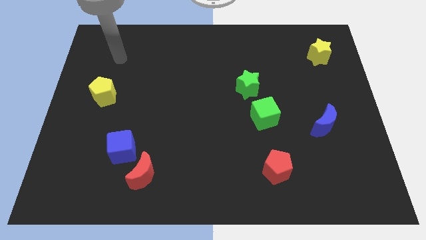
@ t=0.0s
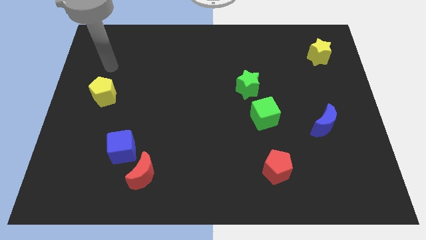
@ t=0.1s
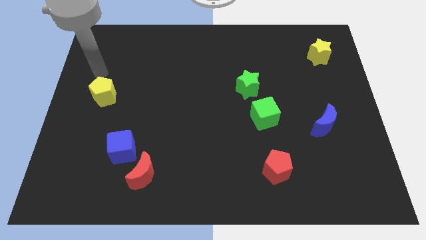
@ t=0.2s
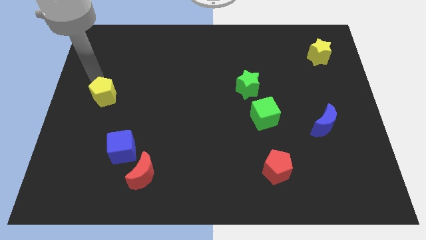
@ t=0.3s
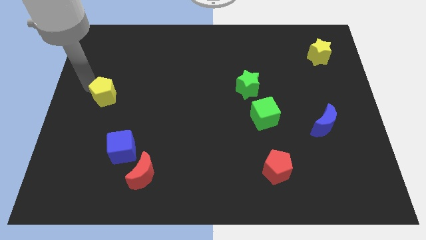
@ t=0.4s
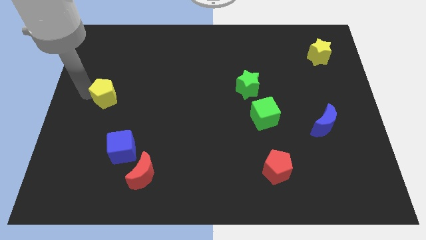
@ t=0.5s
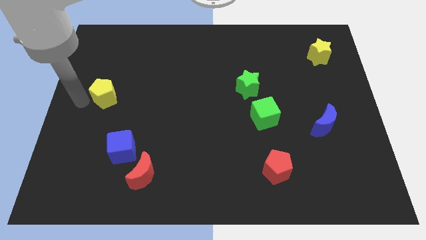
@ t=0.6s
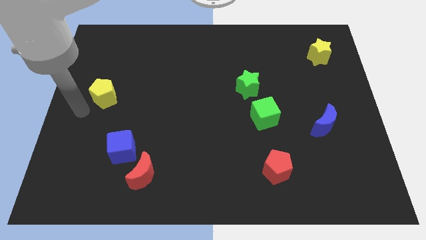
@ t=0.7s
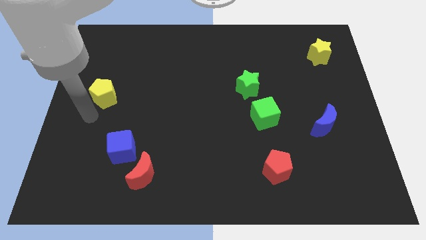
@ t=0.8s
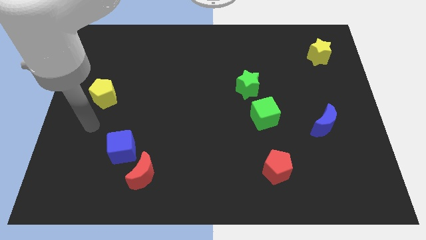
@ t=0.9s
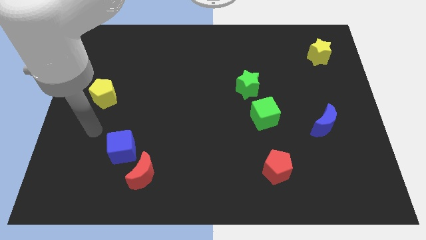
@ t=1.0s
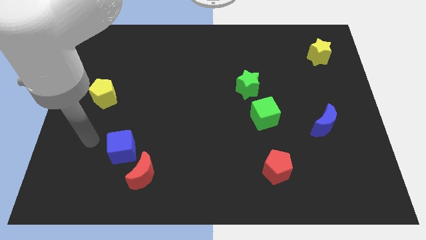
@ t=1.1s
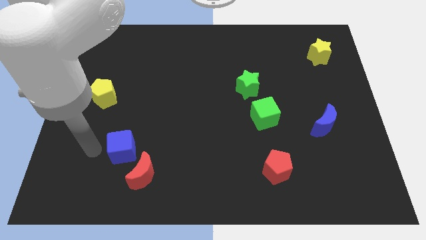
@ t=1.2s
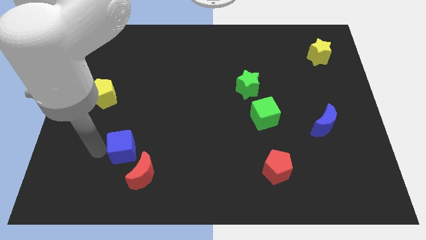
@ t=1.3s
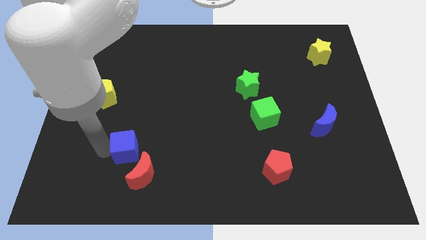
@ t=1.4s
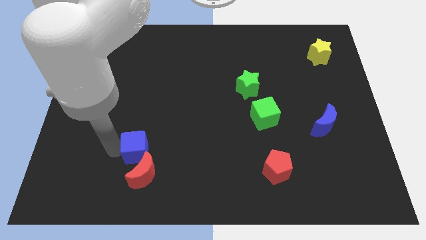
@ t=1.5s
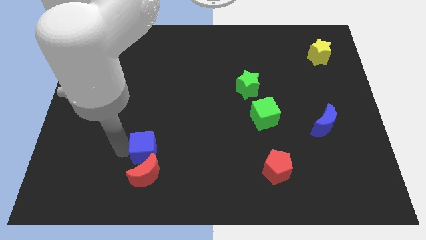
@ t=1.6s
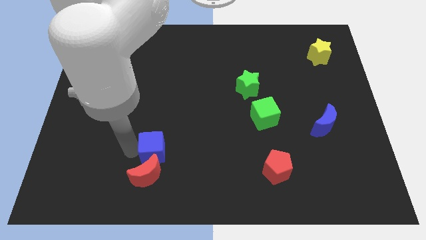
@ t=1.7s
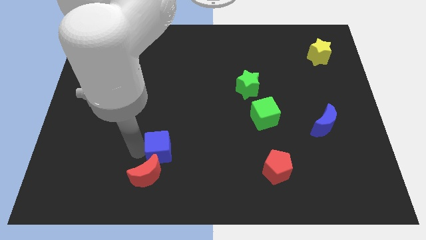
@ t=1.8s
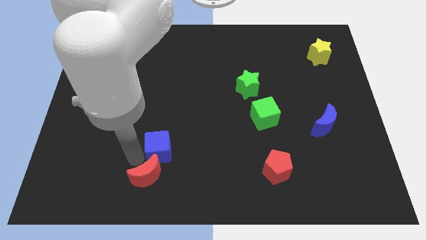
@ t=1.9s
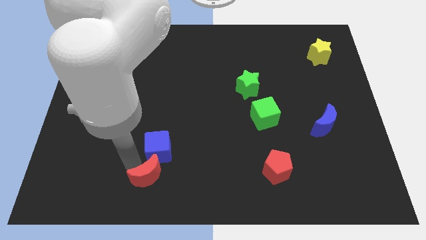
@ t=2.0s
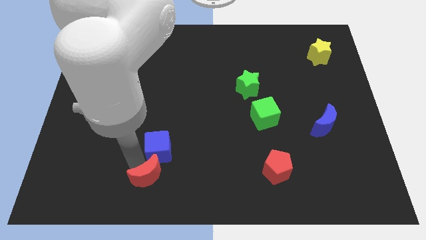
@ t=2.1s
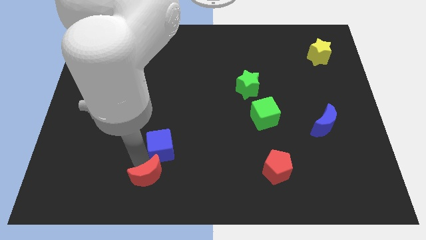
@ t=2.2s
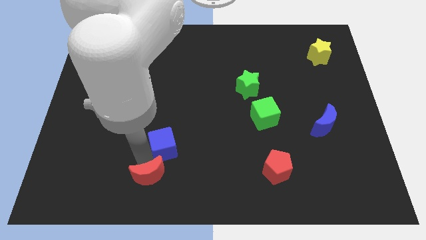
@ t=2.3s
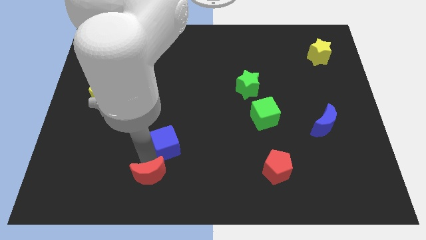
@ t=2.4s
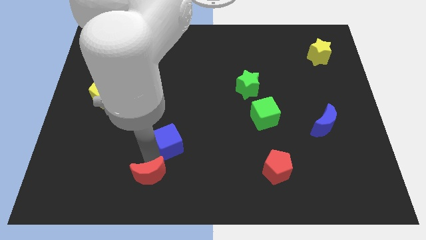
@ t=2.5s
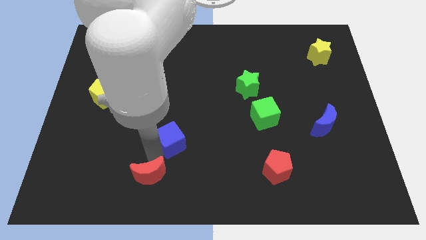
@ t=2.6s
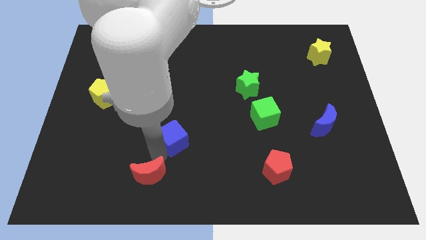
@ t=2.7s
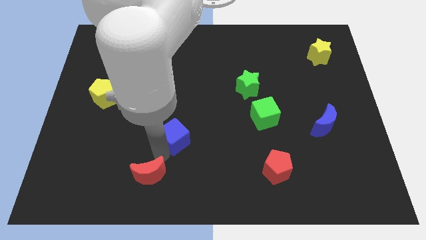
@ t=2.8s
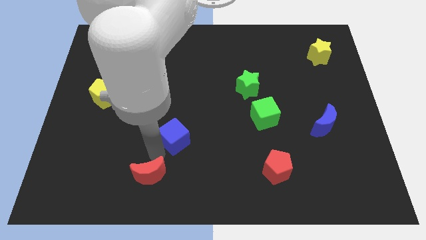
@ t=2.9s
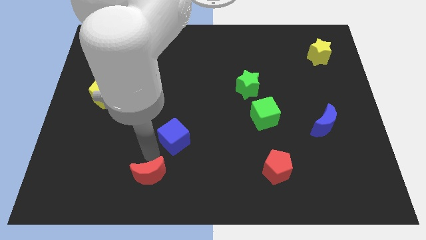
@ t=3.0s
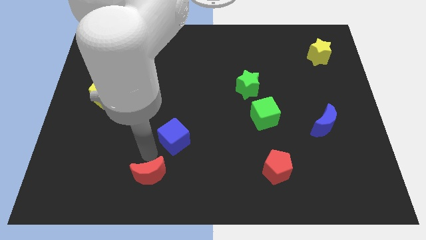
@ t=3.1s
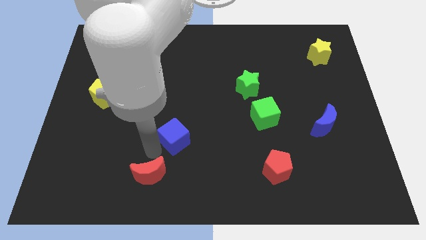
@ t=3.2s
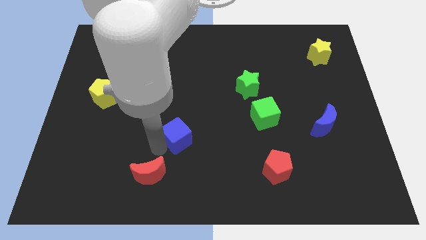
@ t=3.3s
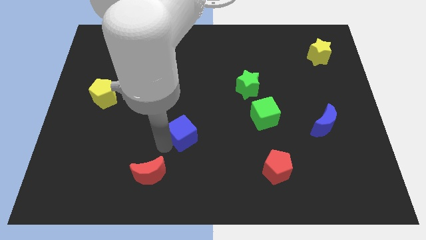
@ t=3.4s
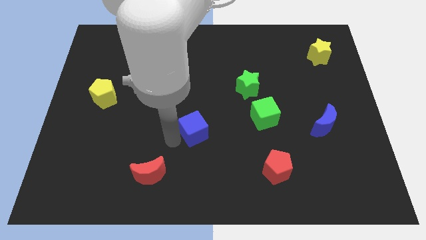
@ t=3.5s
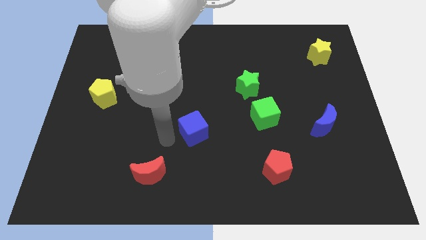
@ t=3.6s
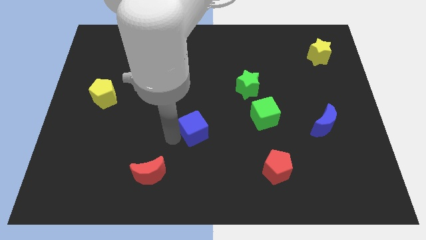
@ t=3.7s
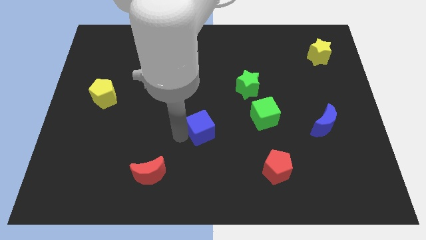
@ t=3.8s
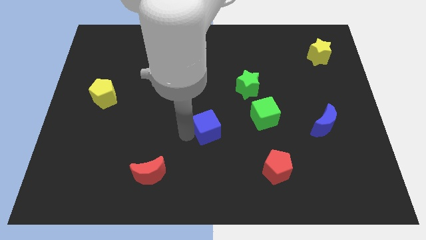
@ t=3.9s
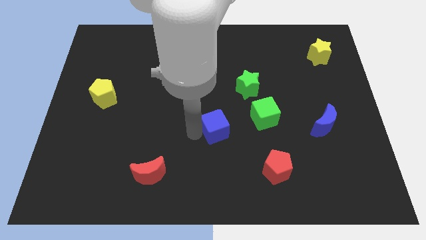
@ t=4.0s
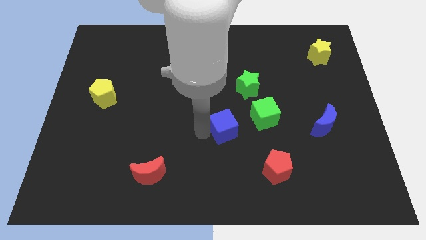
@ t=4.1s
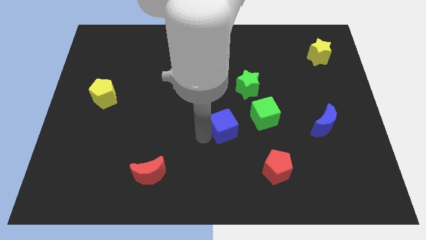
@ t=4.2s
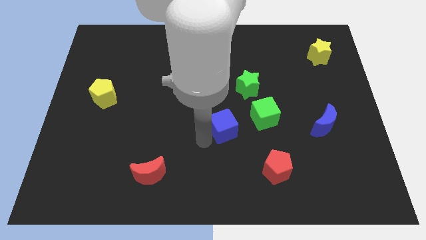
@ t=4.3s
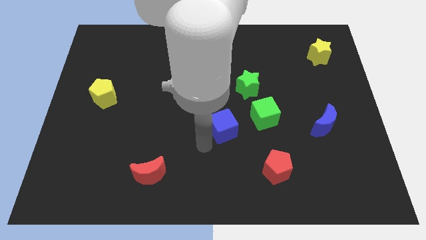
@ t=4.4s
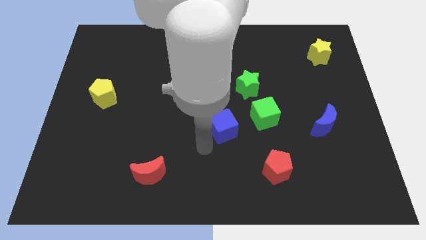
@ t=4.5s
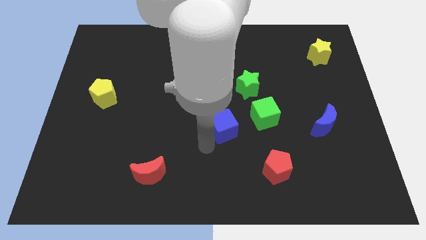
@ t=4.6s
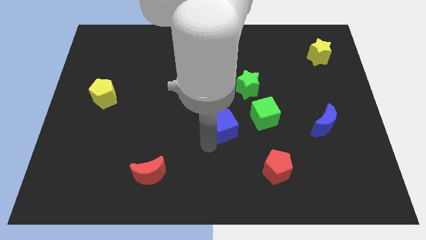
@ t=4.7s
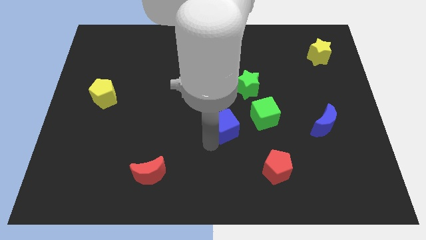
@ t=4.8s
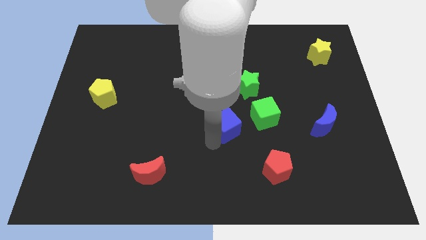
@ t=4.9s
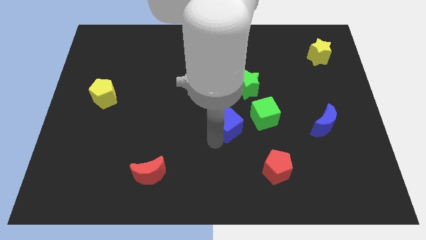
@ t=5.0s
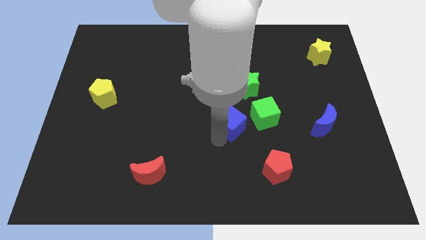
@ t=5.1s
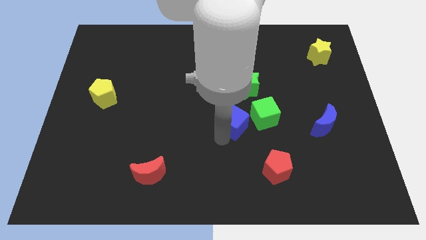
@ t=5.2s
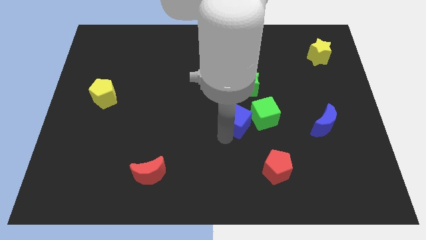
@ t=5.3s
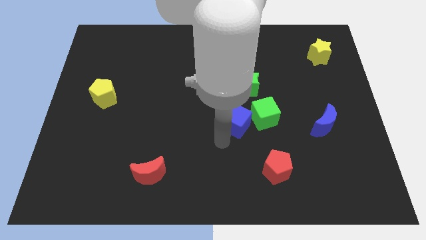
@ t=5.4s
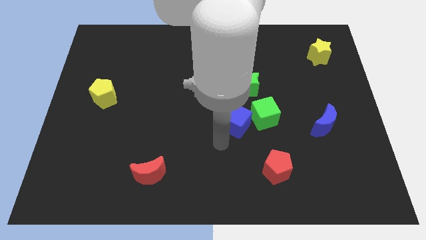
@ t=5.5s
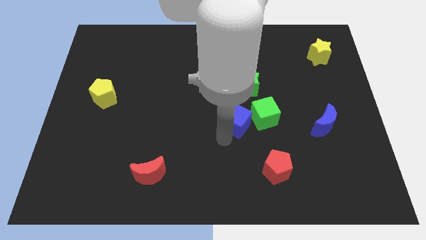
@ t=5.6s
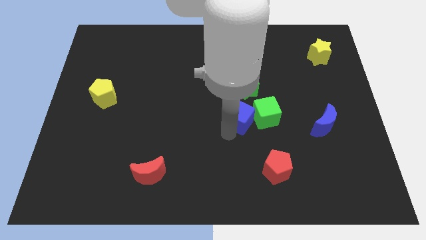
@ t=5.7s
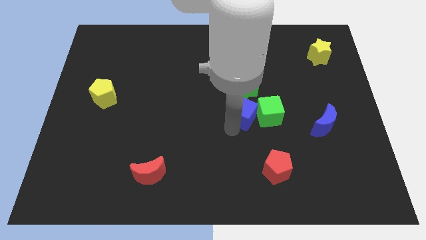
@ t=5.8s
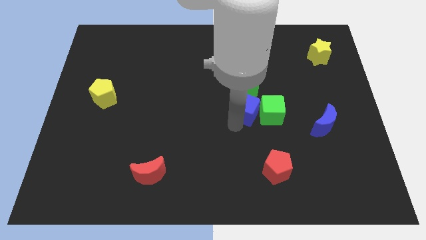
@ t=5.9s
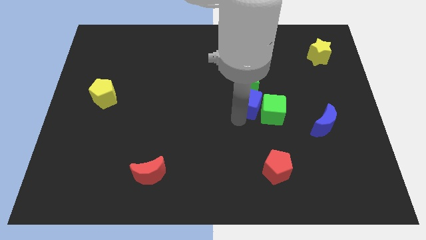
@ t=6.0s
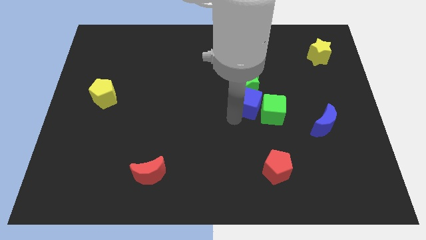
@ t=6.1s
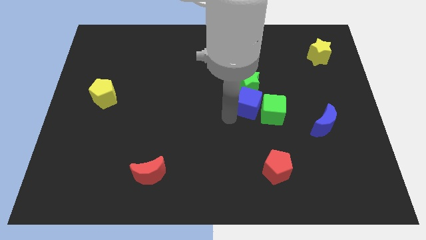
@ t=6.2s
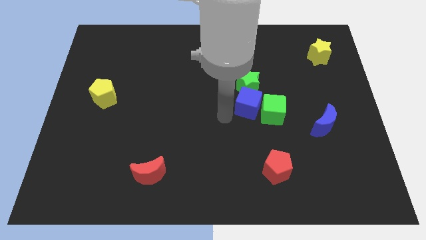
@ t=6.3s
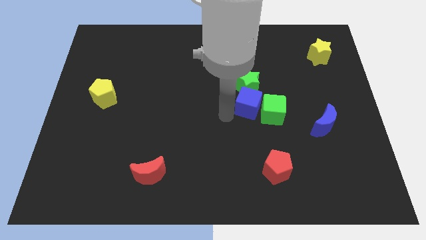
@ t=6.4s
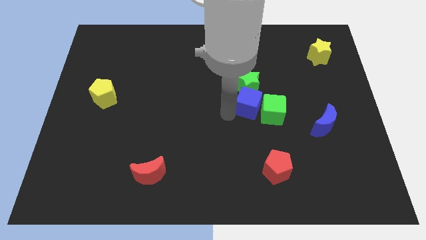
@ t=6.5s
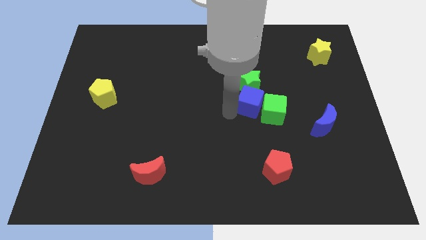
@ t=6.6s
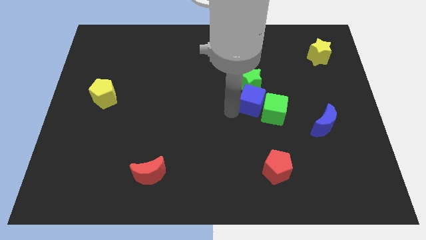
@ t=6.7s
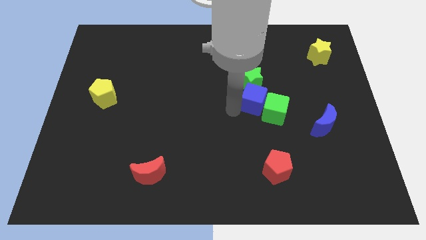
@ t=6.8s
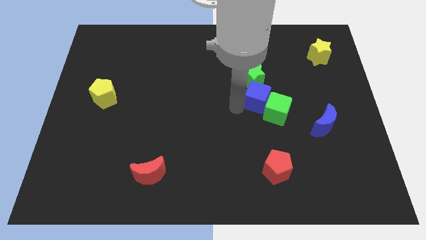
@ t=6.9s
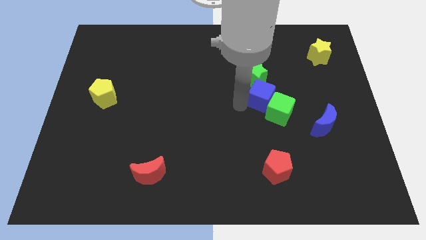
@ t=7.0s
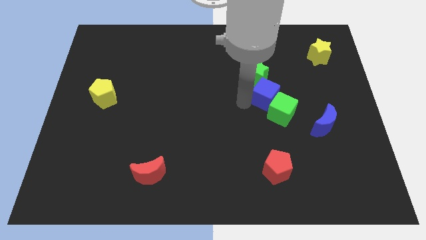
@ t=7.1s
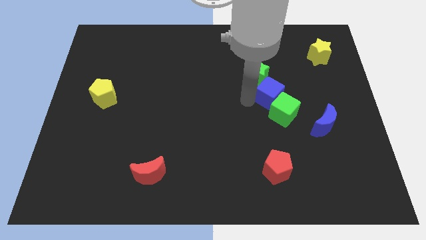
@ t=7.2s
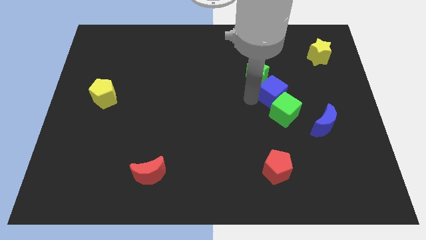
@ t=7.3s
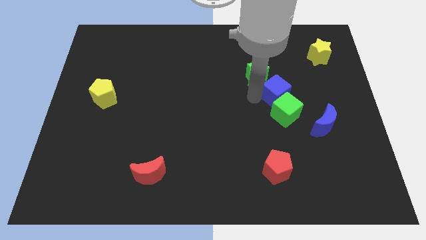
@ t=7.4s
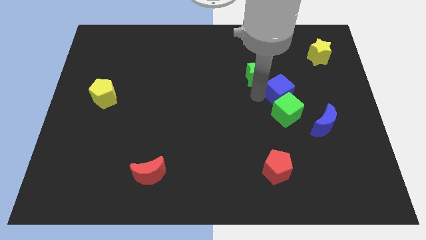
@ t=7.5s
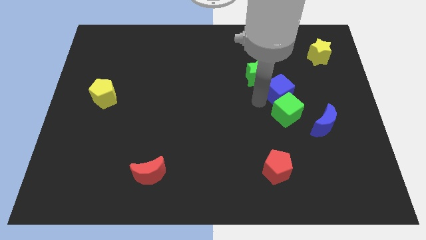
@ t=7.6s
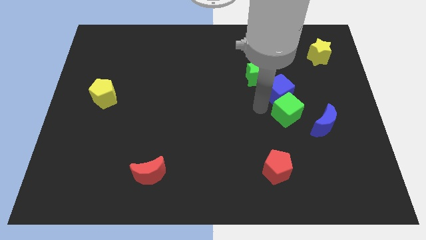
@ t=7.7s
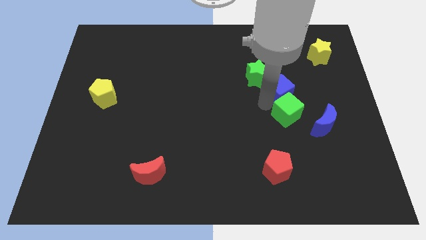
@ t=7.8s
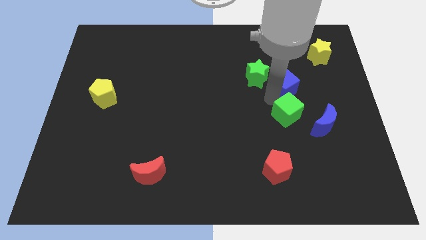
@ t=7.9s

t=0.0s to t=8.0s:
push the blue cube to the right side of the green star

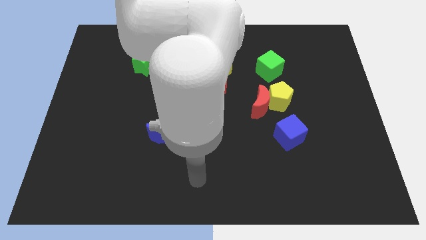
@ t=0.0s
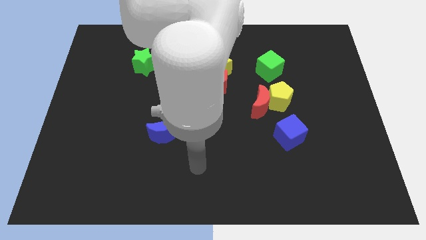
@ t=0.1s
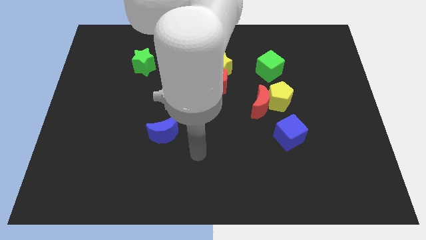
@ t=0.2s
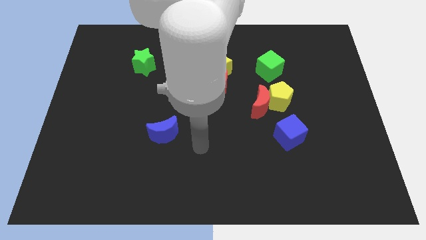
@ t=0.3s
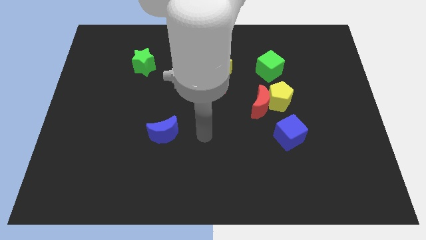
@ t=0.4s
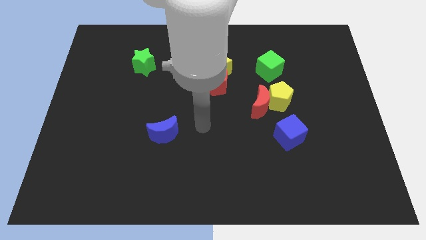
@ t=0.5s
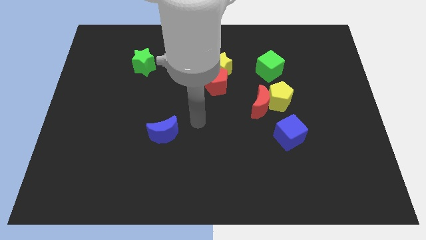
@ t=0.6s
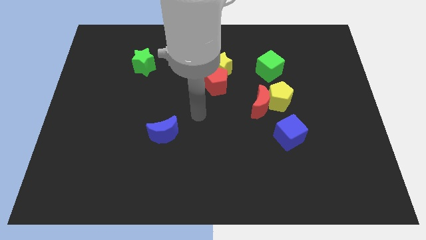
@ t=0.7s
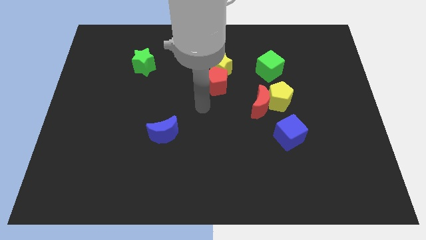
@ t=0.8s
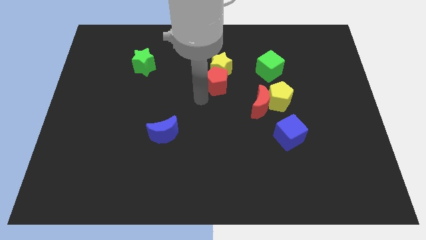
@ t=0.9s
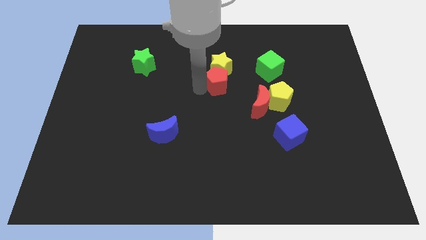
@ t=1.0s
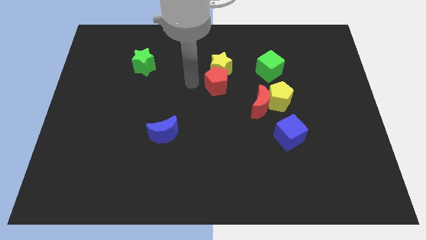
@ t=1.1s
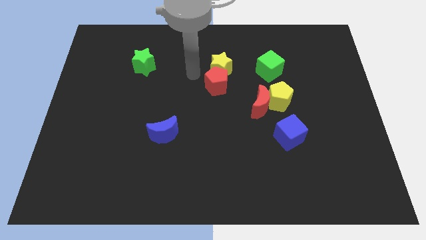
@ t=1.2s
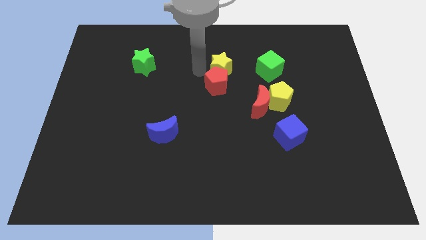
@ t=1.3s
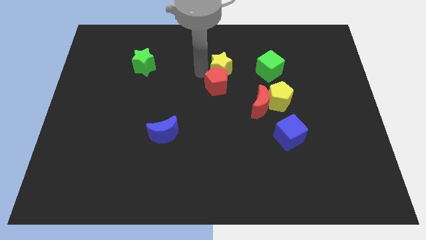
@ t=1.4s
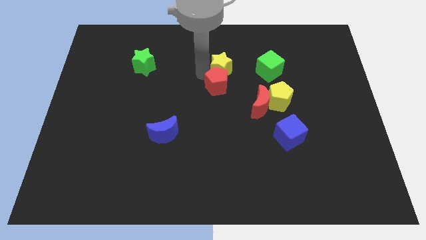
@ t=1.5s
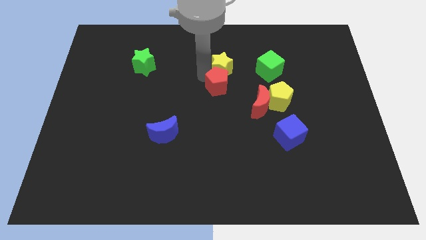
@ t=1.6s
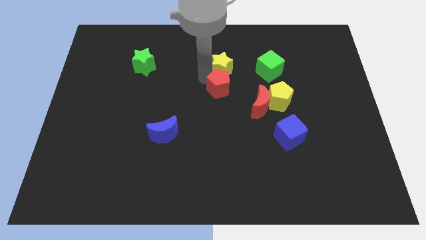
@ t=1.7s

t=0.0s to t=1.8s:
move the red pentagon left of the yellow pentagon
